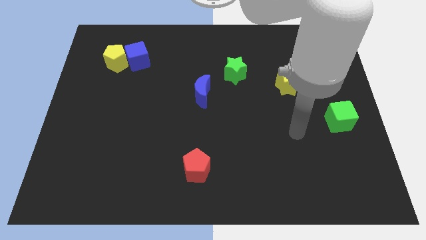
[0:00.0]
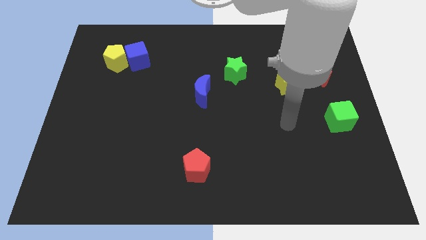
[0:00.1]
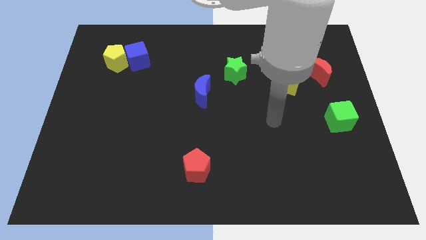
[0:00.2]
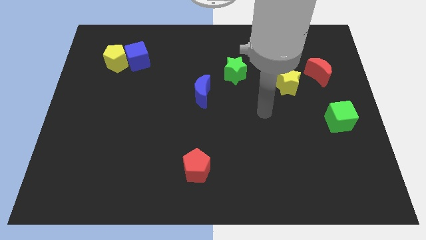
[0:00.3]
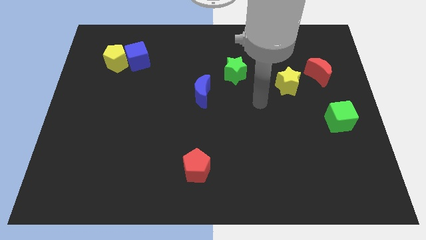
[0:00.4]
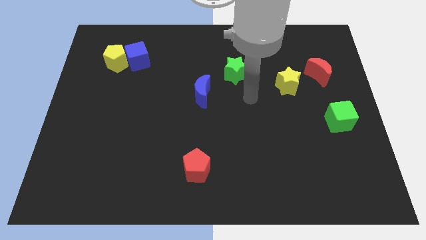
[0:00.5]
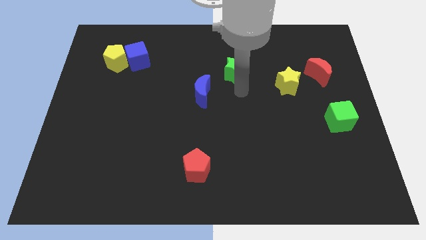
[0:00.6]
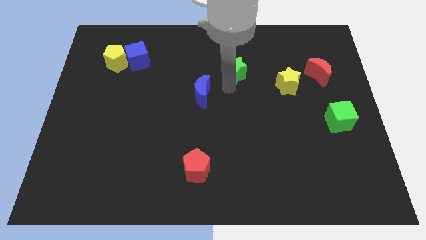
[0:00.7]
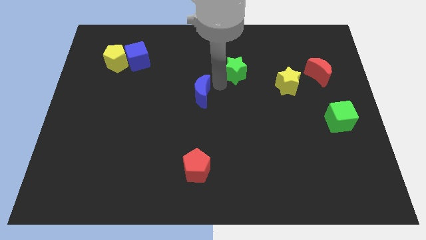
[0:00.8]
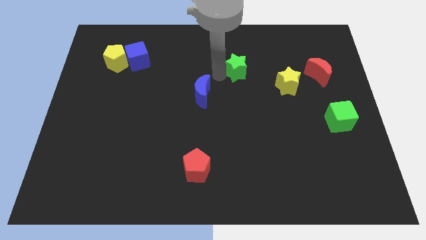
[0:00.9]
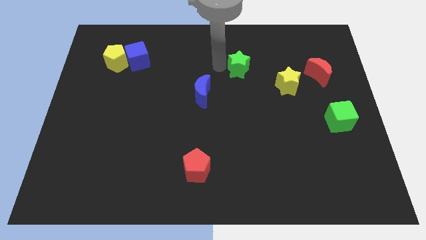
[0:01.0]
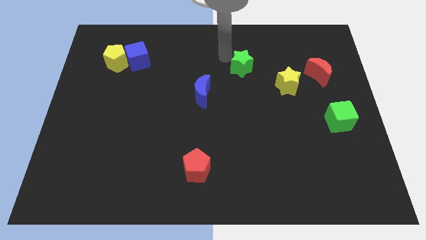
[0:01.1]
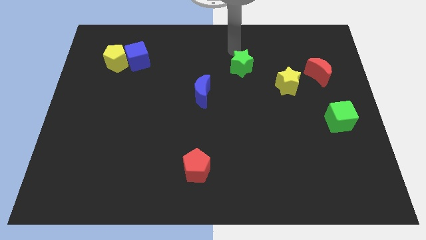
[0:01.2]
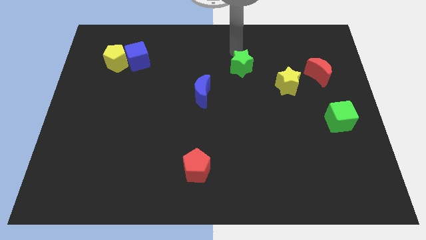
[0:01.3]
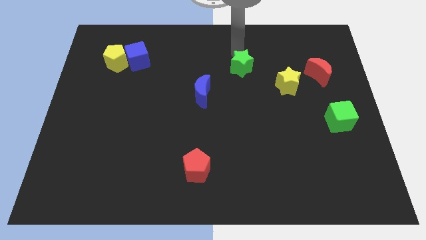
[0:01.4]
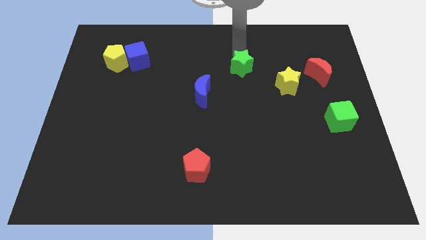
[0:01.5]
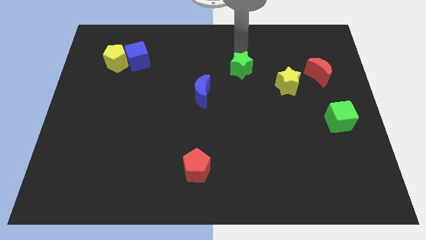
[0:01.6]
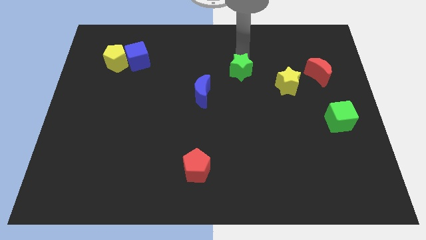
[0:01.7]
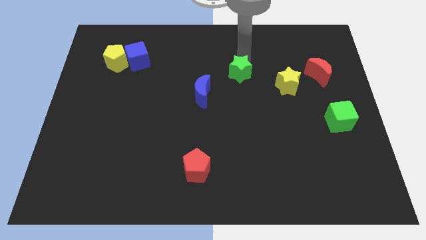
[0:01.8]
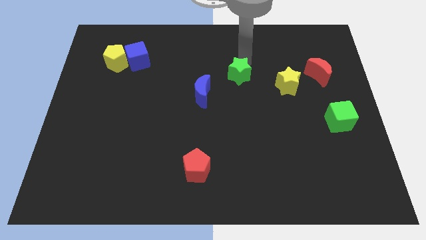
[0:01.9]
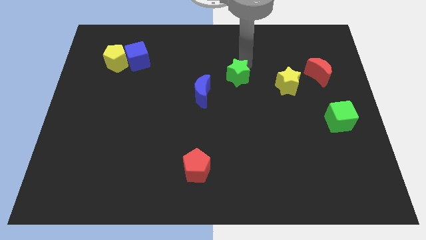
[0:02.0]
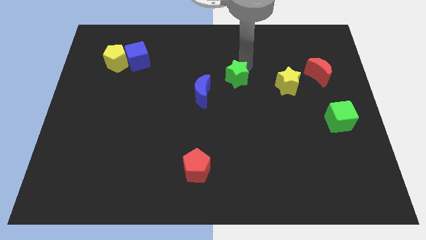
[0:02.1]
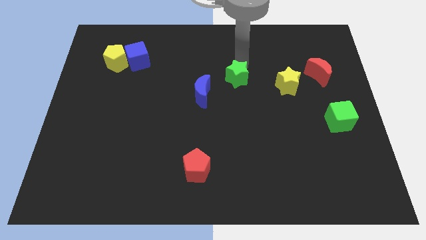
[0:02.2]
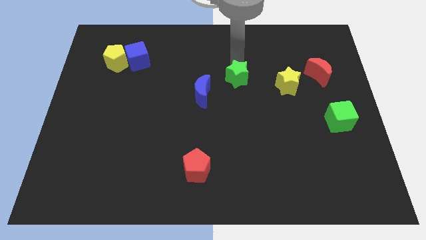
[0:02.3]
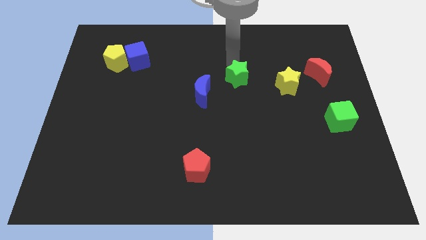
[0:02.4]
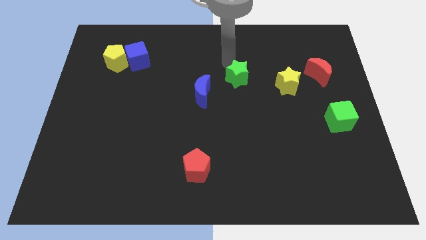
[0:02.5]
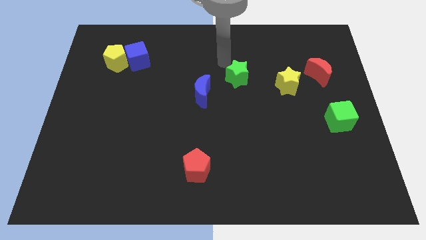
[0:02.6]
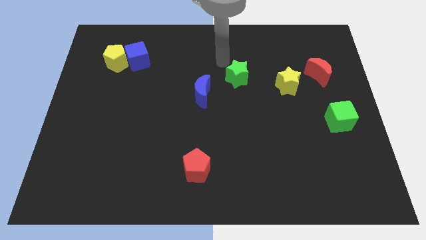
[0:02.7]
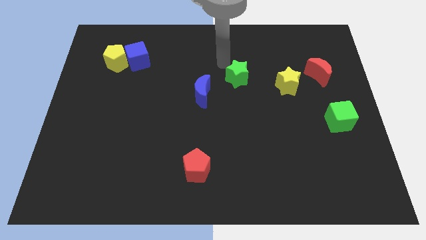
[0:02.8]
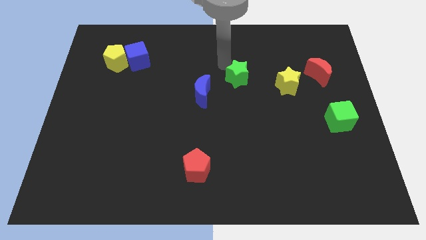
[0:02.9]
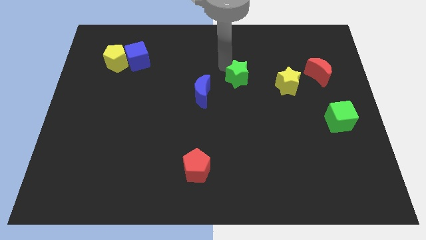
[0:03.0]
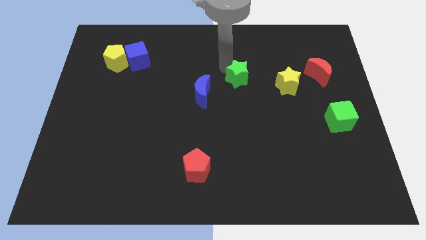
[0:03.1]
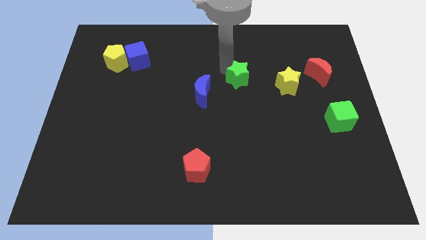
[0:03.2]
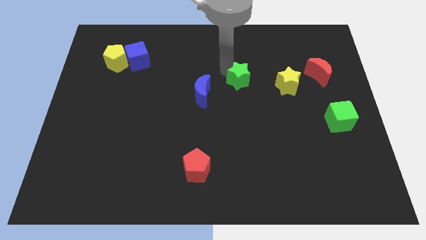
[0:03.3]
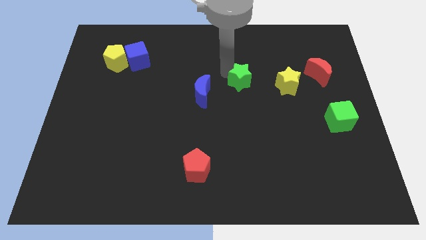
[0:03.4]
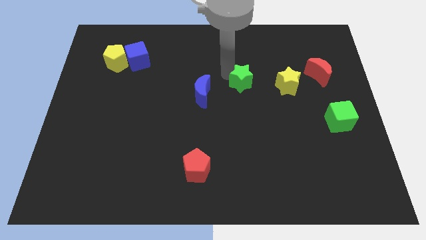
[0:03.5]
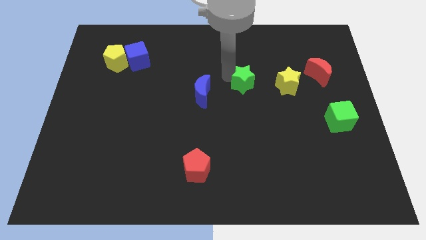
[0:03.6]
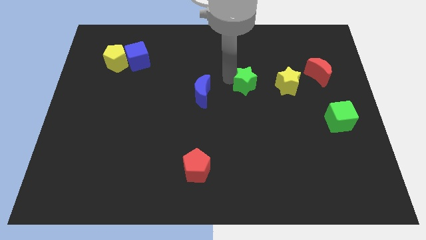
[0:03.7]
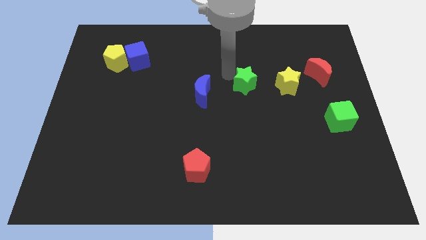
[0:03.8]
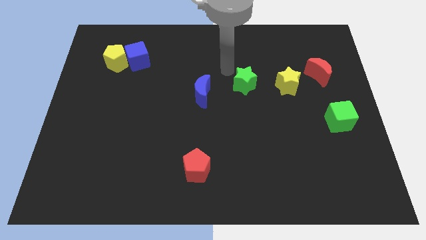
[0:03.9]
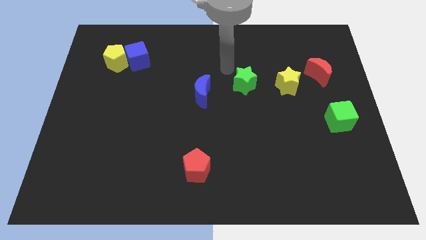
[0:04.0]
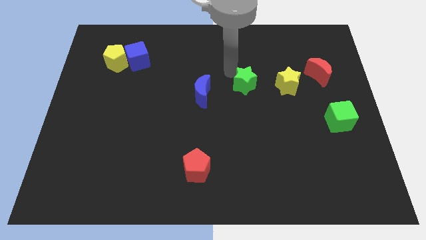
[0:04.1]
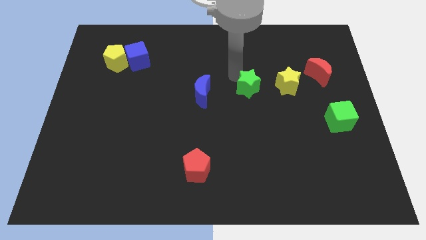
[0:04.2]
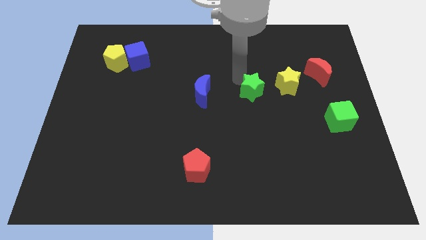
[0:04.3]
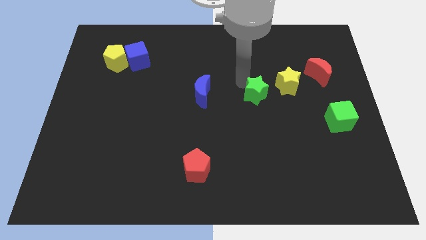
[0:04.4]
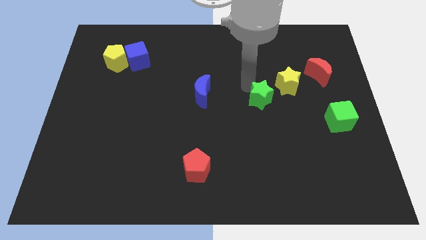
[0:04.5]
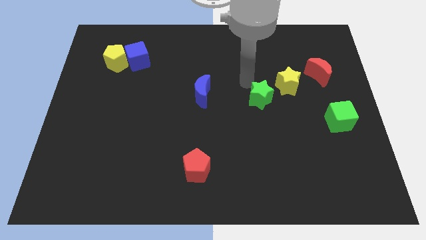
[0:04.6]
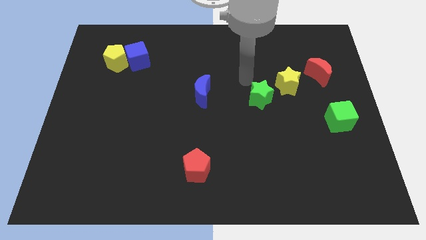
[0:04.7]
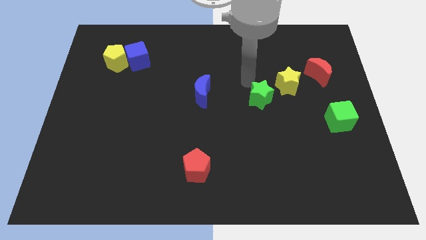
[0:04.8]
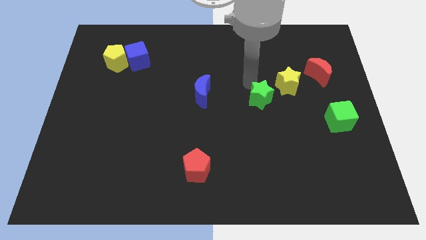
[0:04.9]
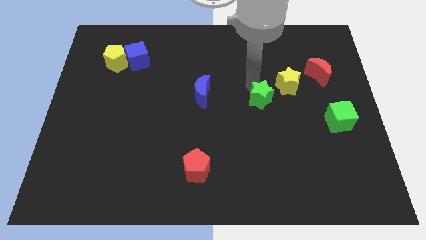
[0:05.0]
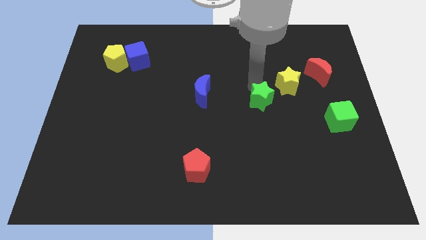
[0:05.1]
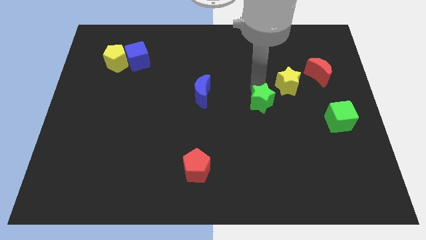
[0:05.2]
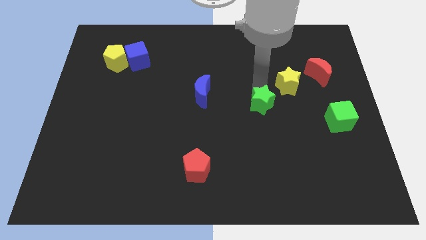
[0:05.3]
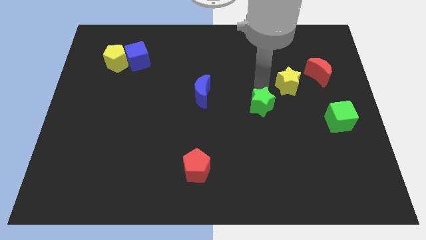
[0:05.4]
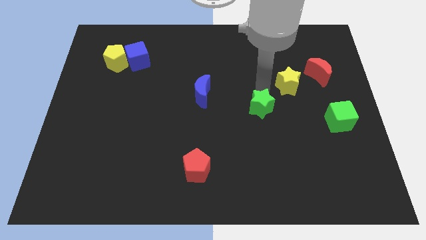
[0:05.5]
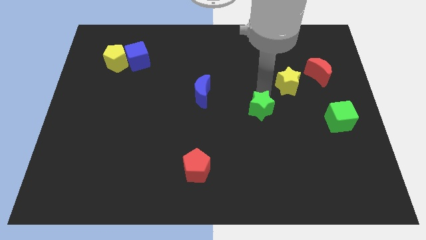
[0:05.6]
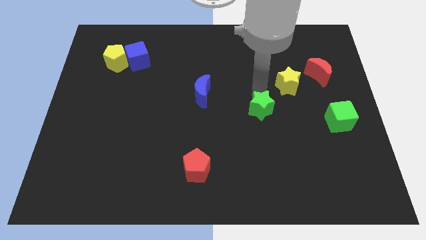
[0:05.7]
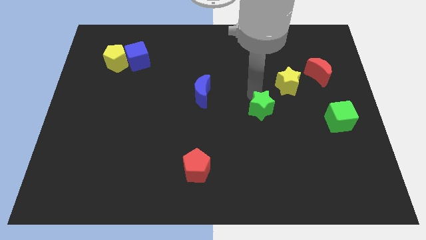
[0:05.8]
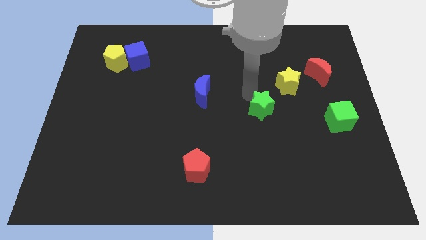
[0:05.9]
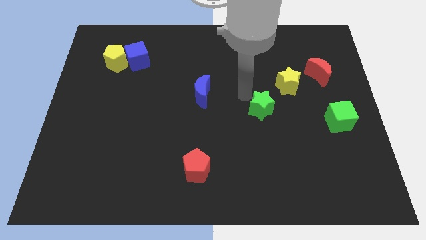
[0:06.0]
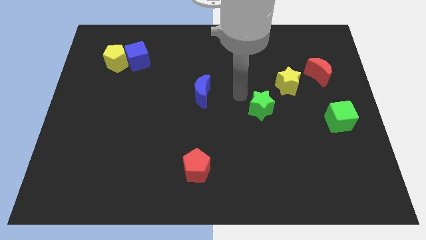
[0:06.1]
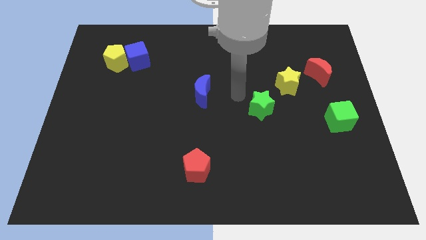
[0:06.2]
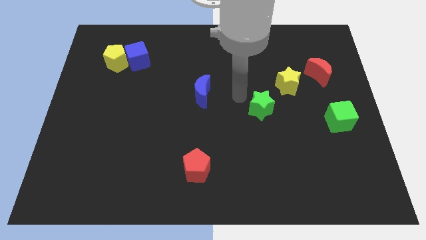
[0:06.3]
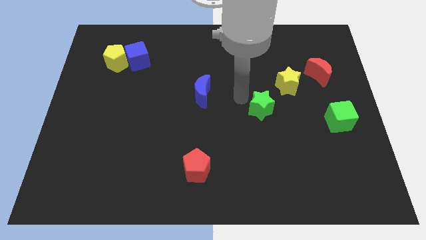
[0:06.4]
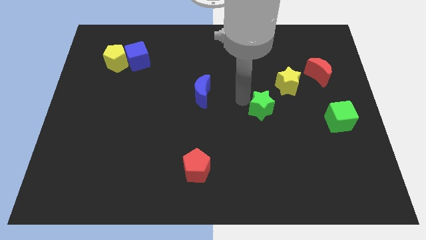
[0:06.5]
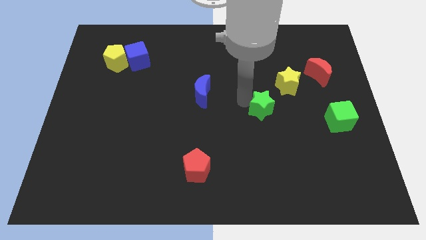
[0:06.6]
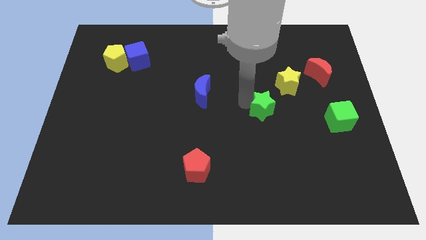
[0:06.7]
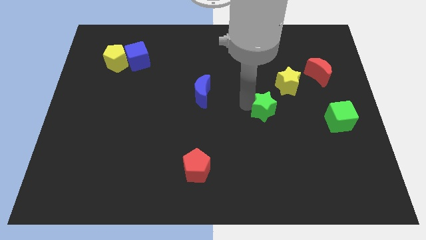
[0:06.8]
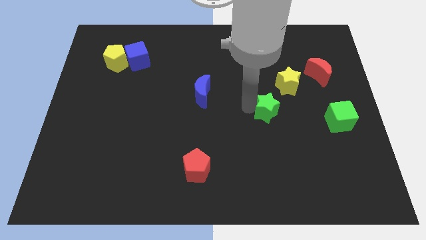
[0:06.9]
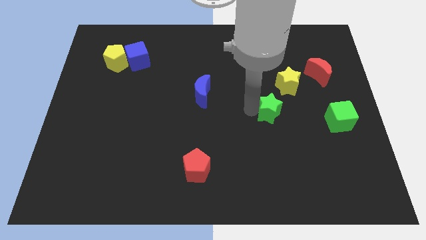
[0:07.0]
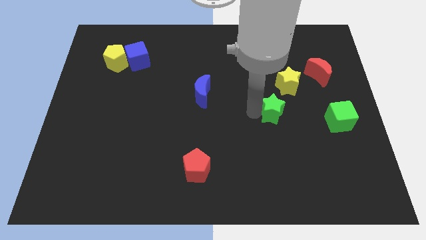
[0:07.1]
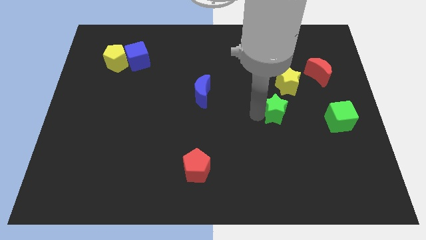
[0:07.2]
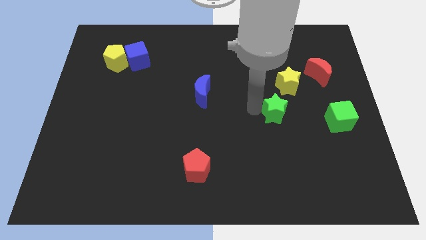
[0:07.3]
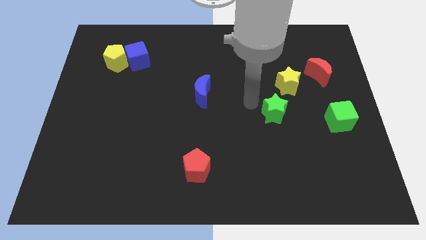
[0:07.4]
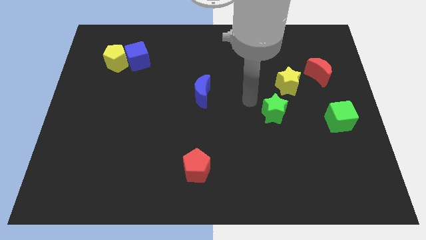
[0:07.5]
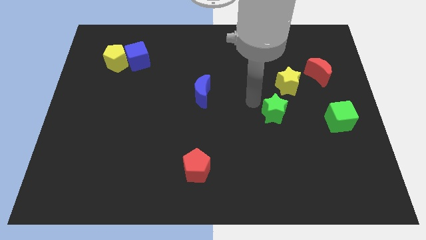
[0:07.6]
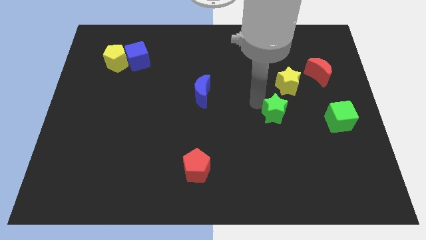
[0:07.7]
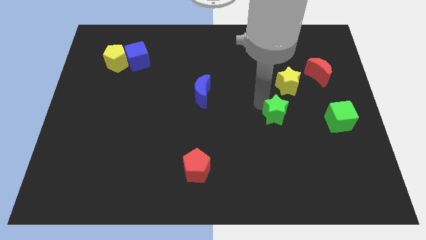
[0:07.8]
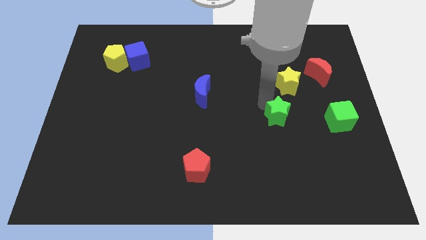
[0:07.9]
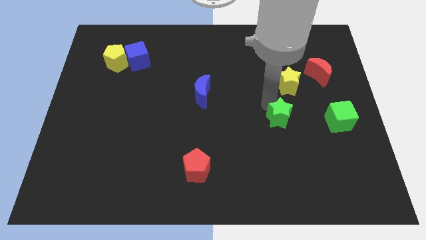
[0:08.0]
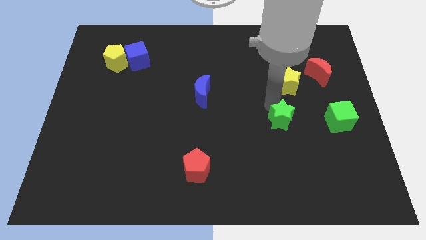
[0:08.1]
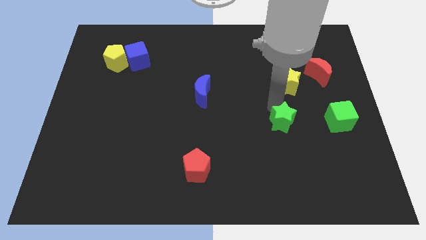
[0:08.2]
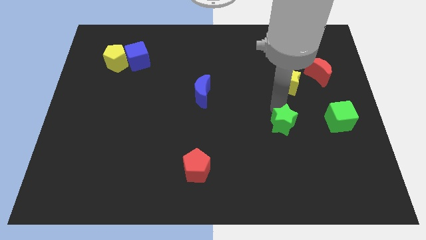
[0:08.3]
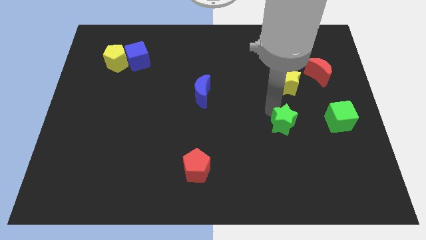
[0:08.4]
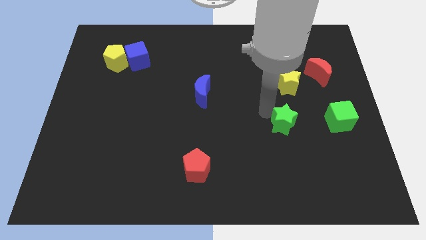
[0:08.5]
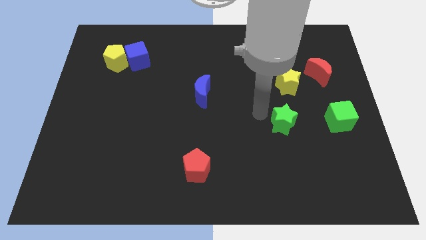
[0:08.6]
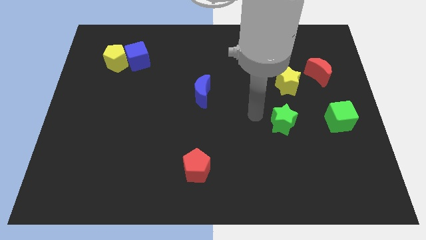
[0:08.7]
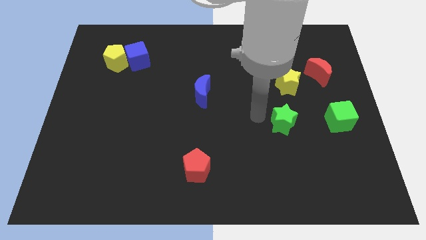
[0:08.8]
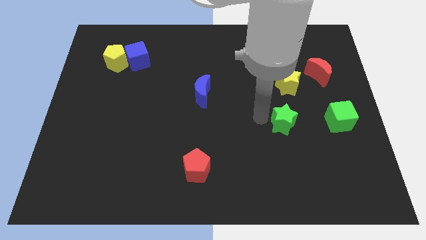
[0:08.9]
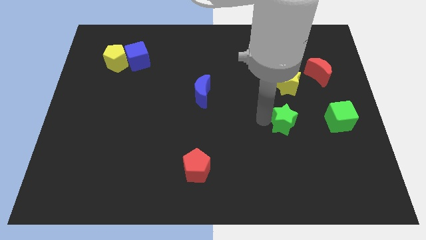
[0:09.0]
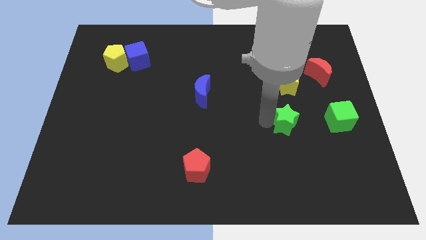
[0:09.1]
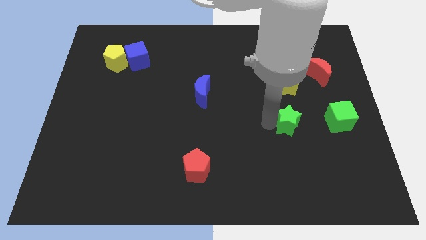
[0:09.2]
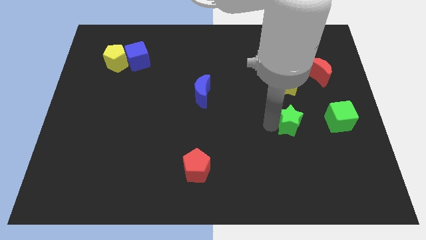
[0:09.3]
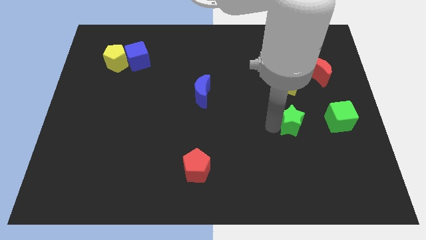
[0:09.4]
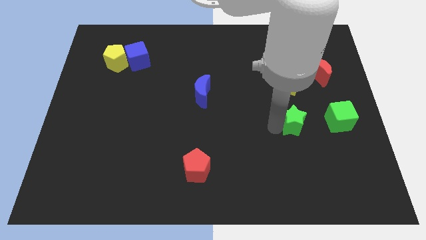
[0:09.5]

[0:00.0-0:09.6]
move the green star down and to the right
